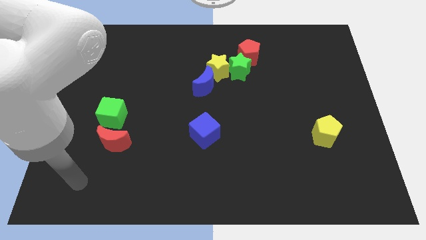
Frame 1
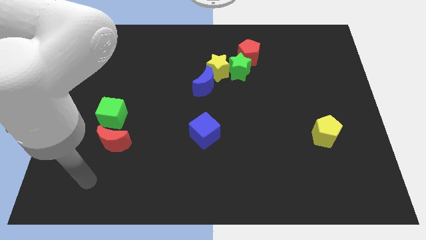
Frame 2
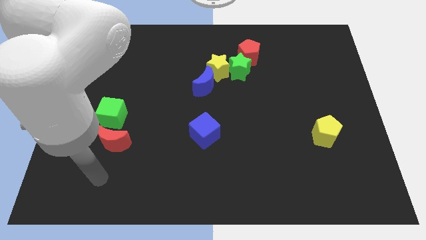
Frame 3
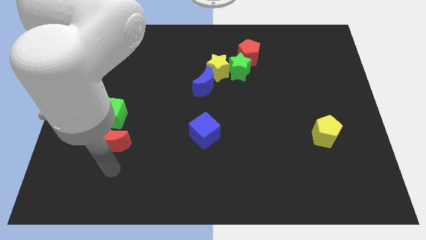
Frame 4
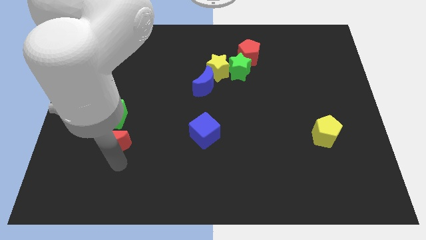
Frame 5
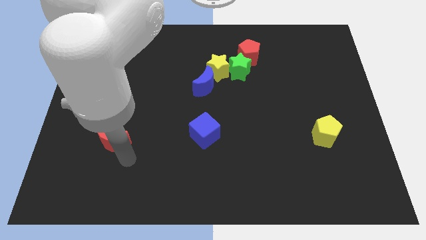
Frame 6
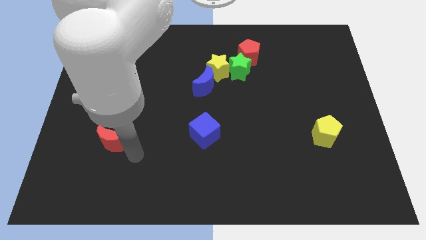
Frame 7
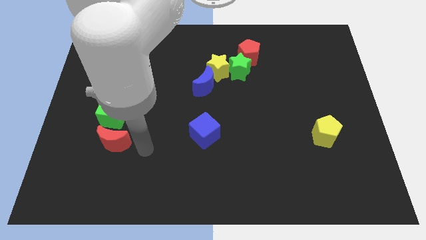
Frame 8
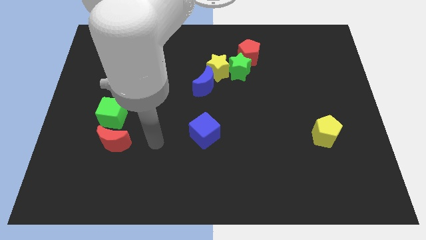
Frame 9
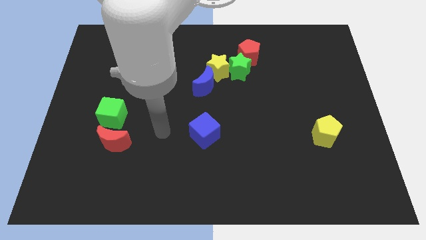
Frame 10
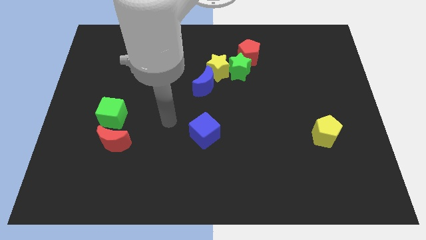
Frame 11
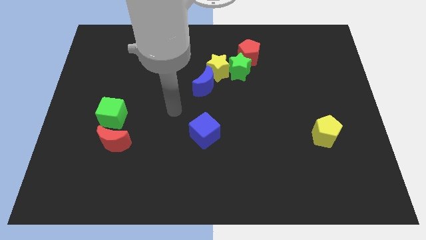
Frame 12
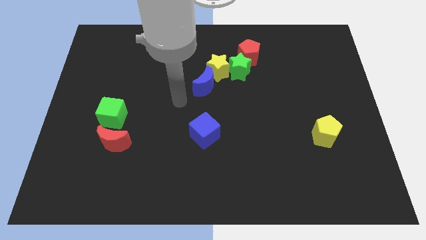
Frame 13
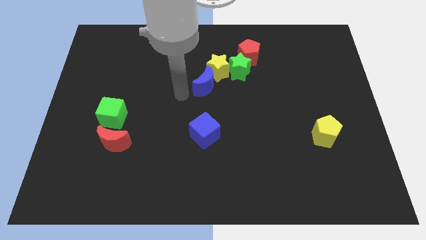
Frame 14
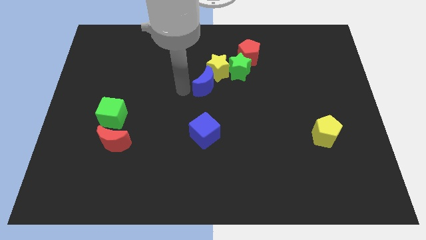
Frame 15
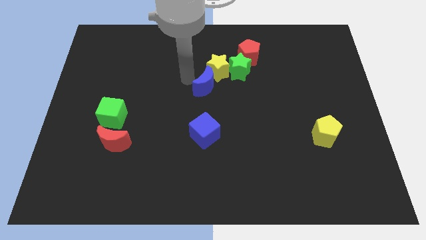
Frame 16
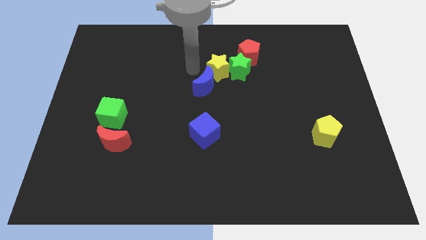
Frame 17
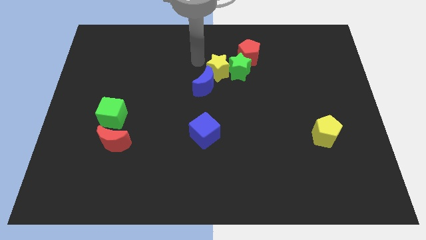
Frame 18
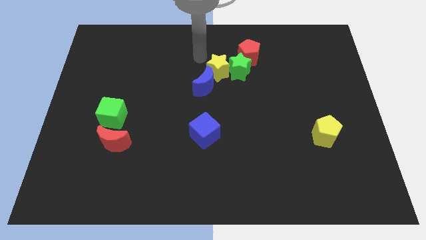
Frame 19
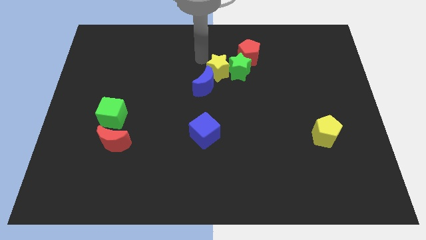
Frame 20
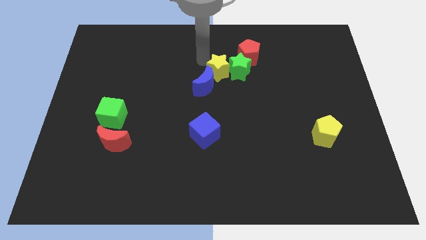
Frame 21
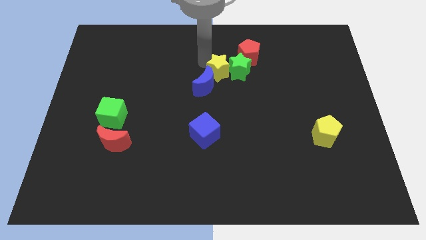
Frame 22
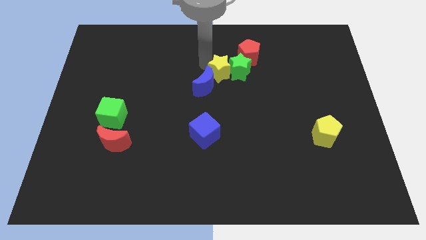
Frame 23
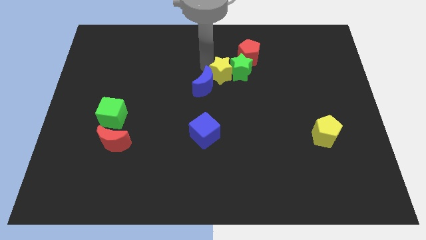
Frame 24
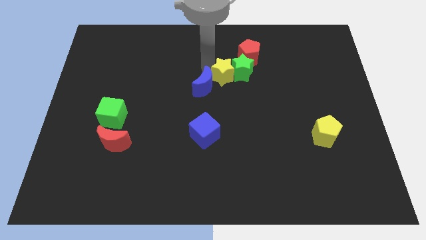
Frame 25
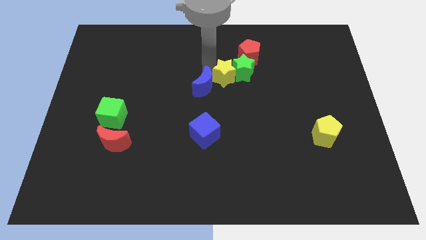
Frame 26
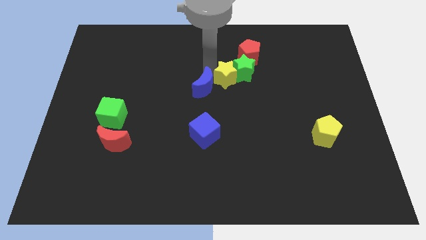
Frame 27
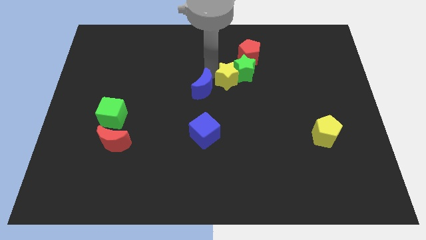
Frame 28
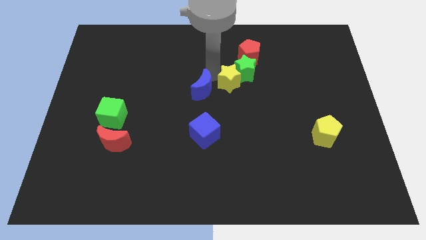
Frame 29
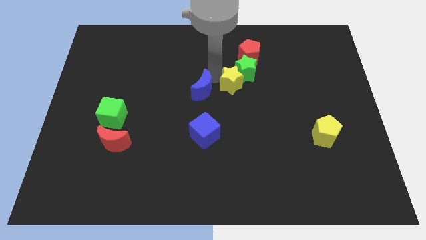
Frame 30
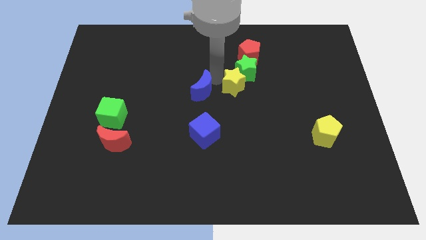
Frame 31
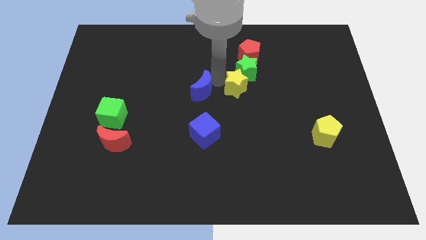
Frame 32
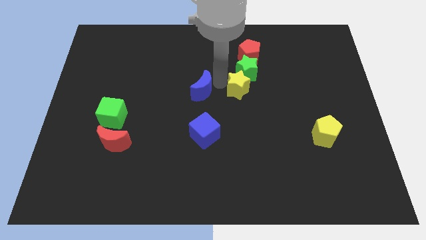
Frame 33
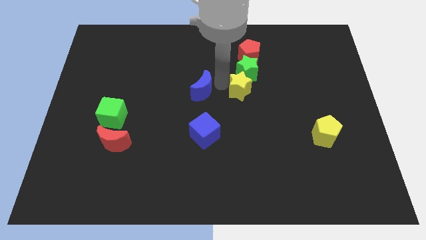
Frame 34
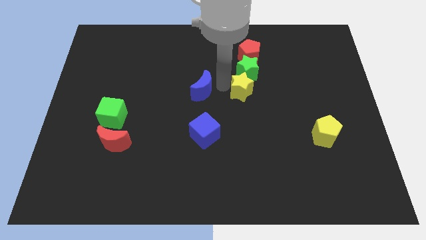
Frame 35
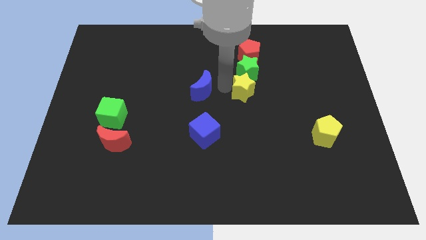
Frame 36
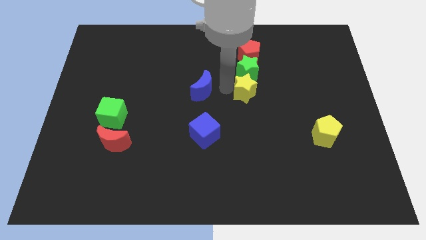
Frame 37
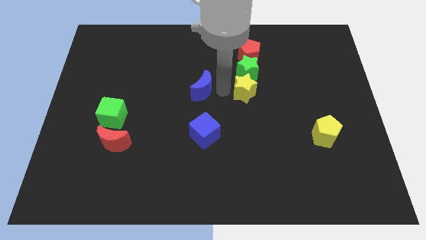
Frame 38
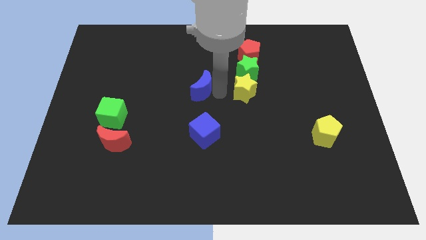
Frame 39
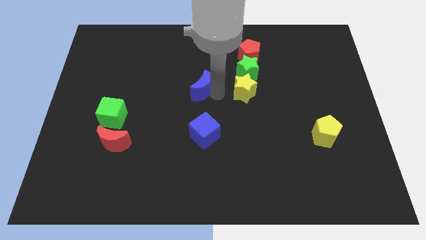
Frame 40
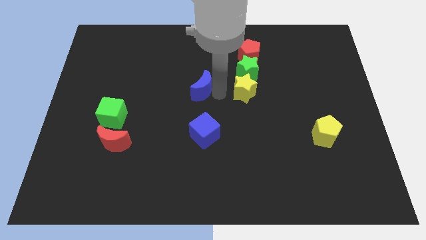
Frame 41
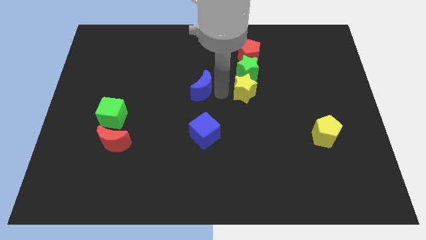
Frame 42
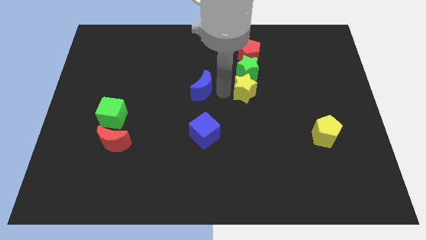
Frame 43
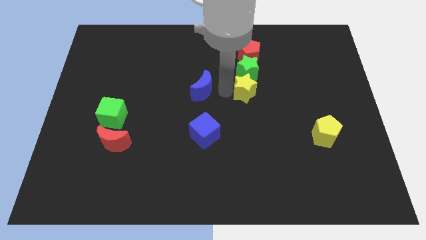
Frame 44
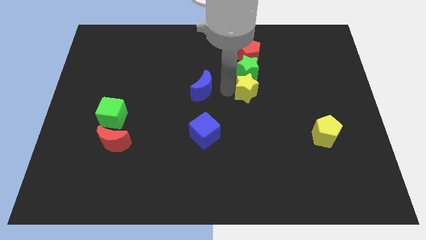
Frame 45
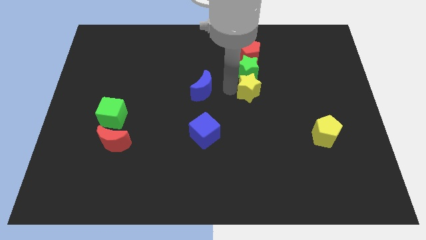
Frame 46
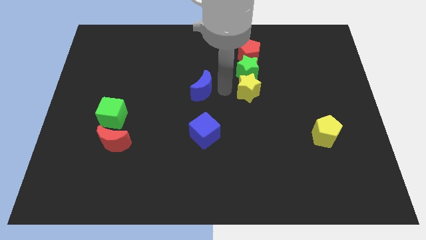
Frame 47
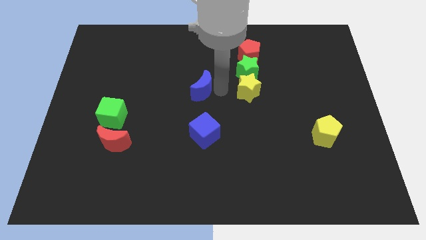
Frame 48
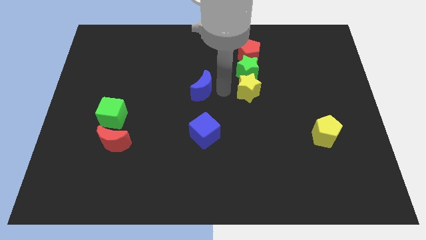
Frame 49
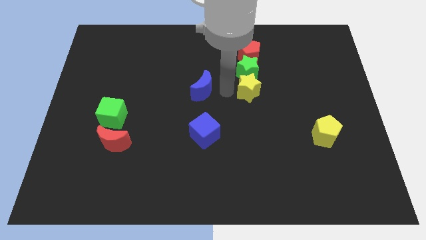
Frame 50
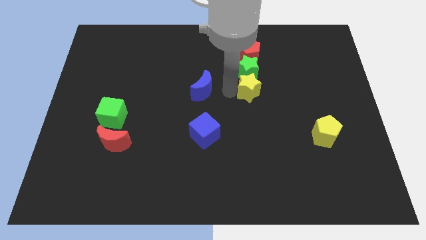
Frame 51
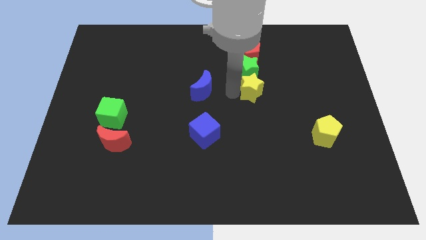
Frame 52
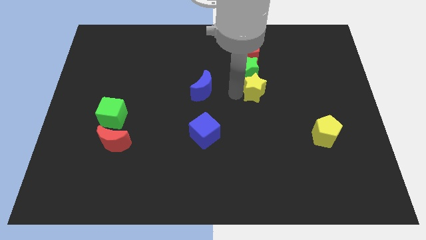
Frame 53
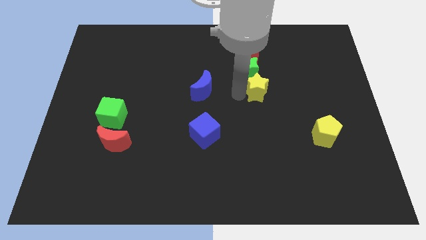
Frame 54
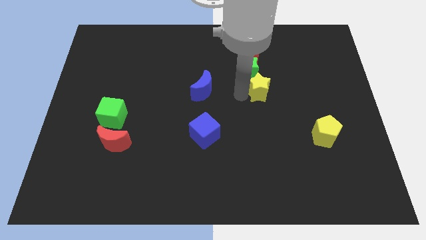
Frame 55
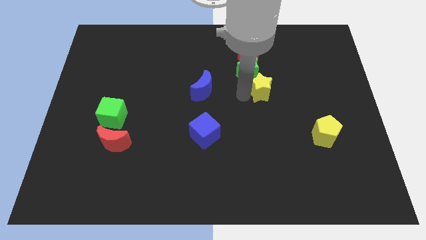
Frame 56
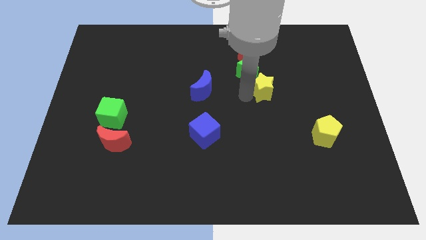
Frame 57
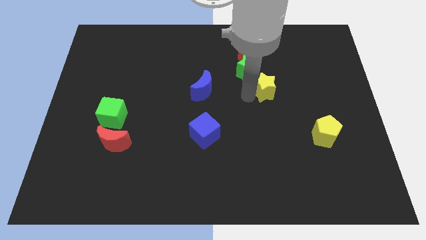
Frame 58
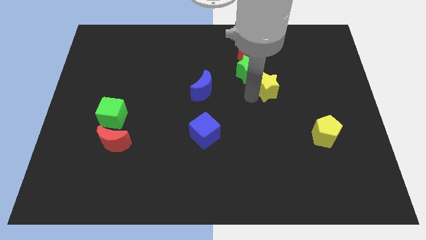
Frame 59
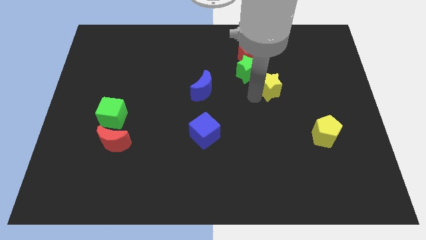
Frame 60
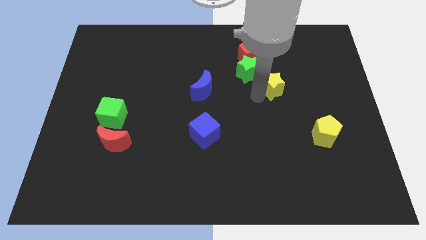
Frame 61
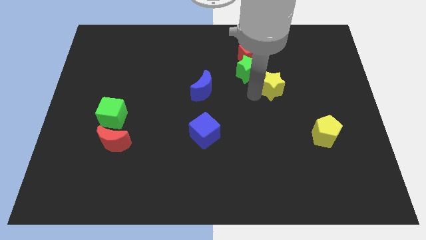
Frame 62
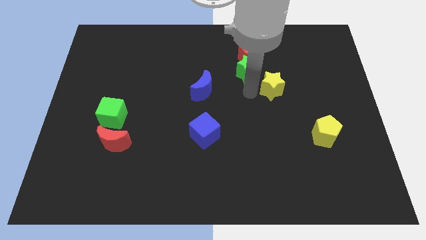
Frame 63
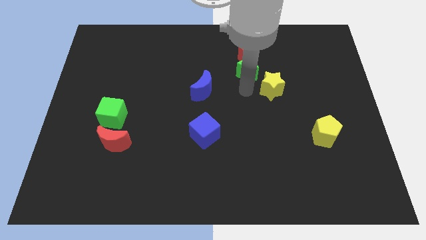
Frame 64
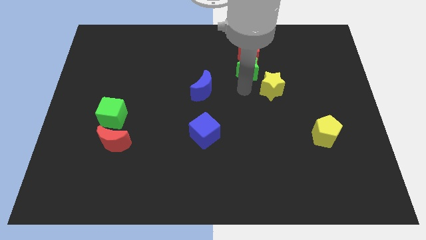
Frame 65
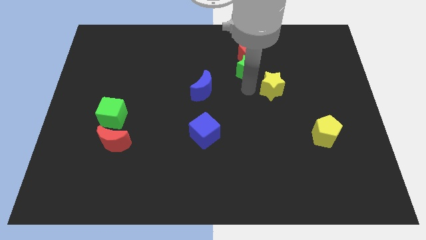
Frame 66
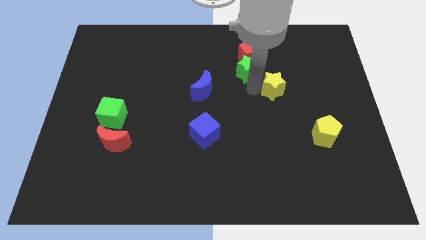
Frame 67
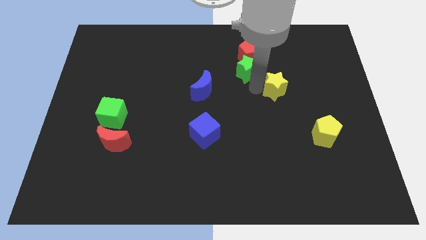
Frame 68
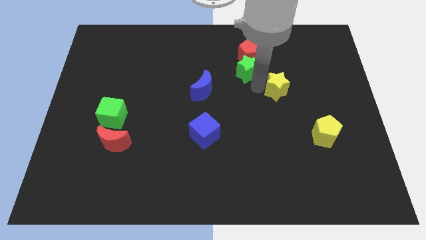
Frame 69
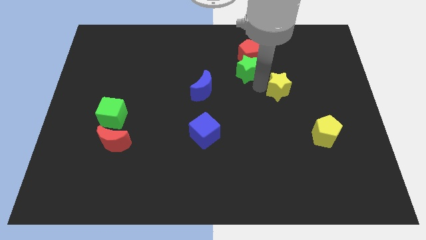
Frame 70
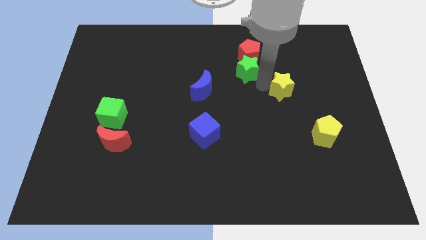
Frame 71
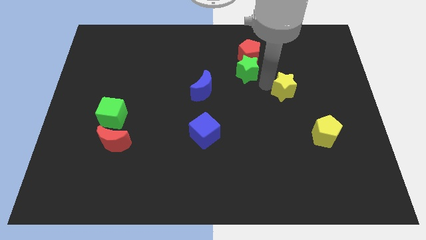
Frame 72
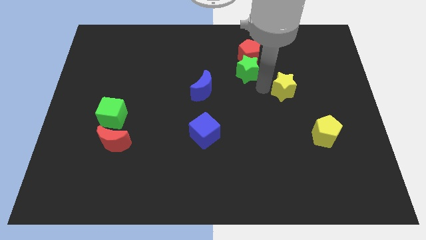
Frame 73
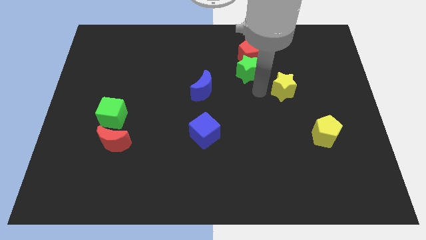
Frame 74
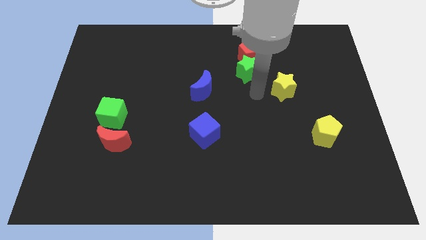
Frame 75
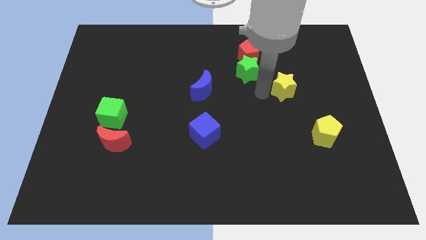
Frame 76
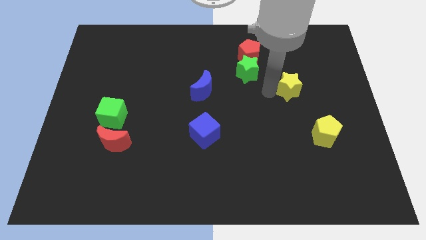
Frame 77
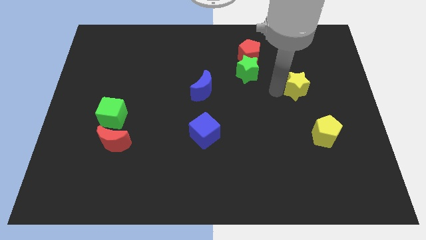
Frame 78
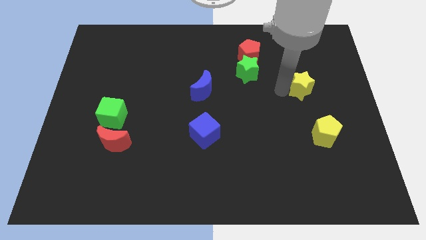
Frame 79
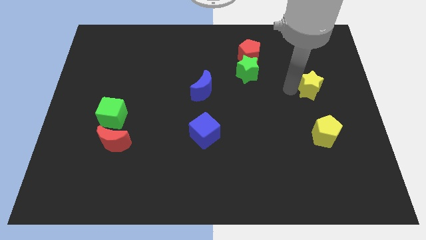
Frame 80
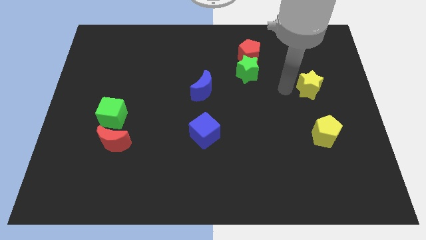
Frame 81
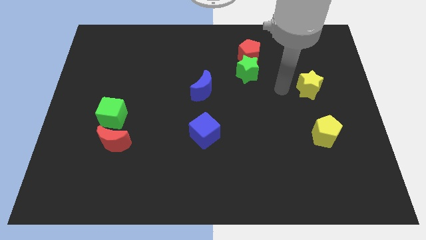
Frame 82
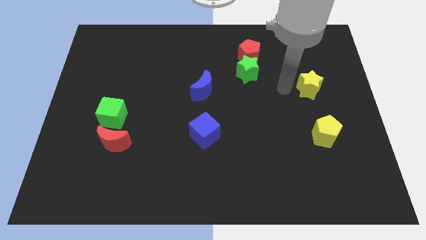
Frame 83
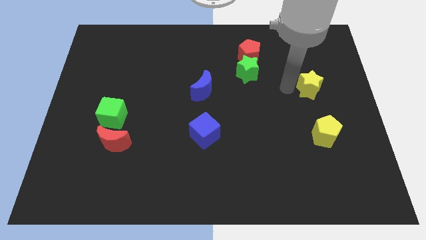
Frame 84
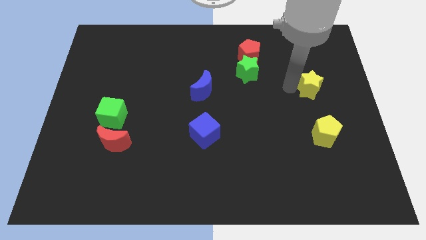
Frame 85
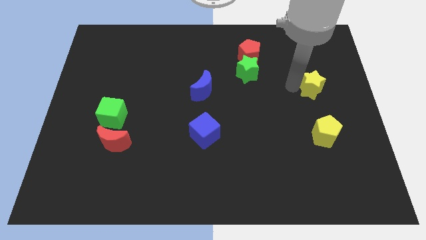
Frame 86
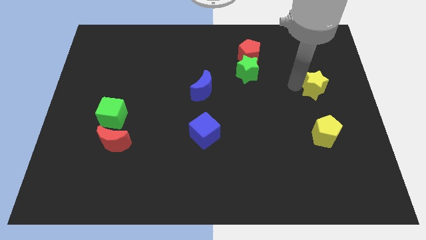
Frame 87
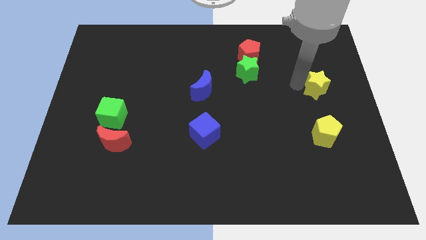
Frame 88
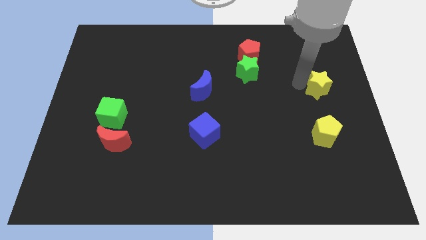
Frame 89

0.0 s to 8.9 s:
slide the yellow star to the right side
